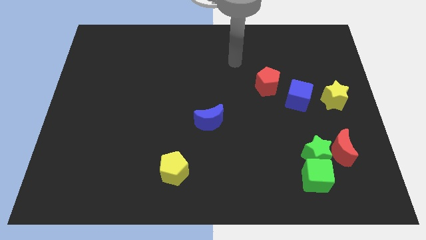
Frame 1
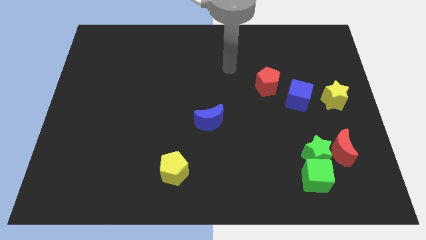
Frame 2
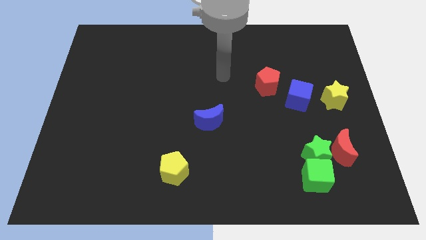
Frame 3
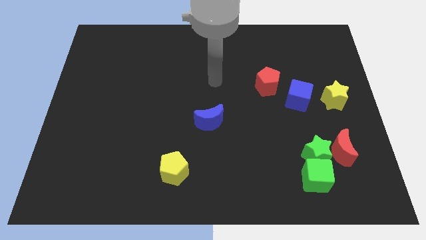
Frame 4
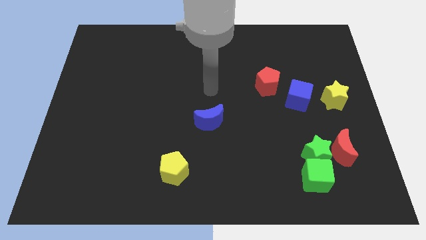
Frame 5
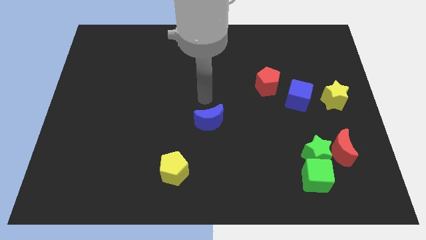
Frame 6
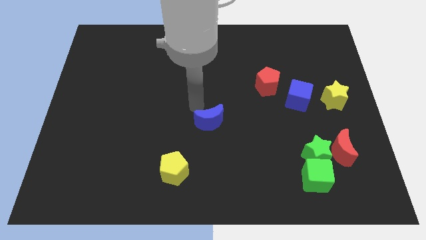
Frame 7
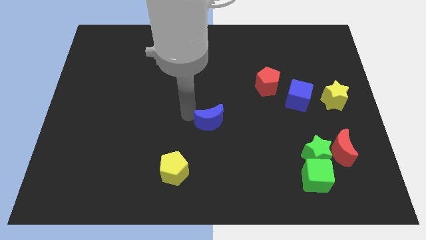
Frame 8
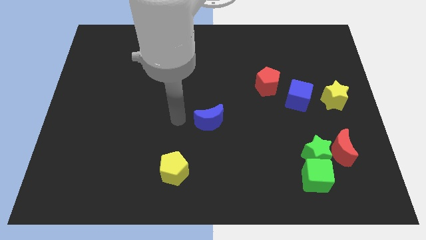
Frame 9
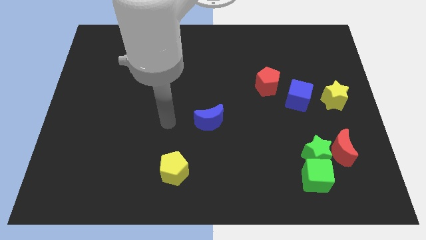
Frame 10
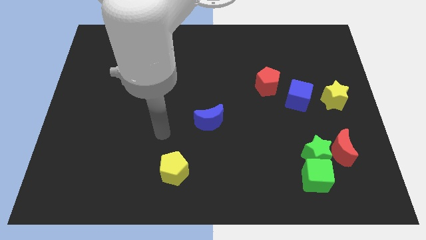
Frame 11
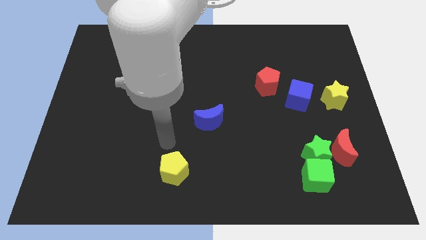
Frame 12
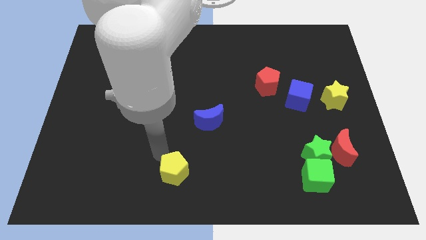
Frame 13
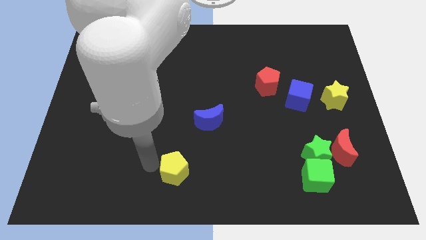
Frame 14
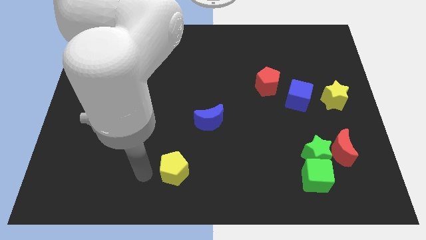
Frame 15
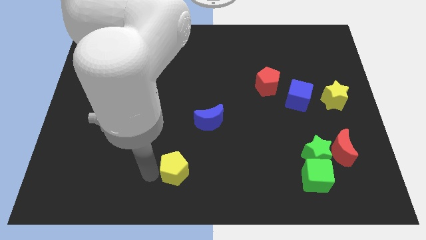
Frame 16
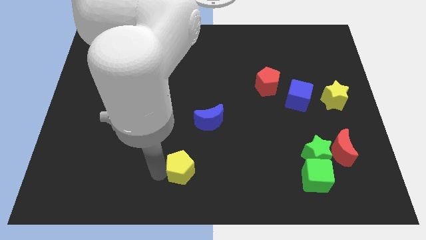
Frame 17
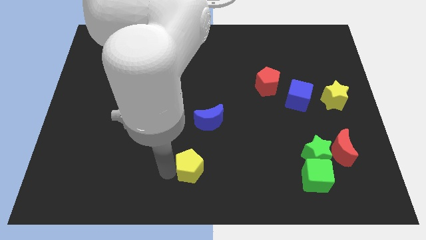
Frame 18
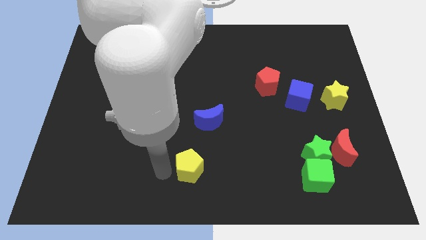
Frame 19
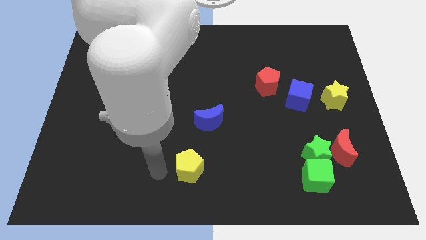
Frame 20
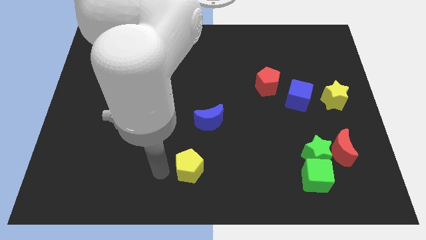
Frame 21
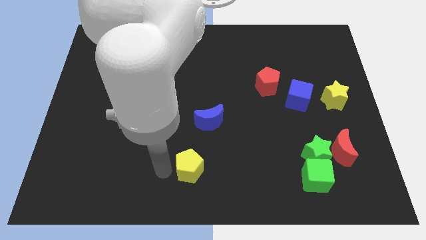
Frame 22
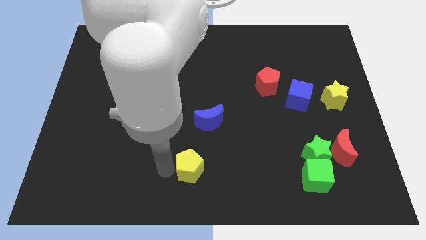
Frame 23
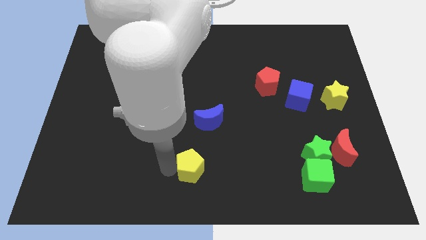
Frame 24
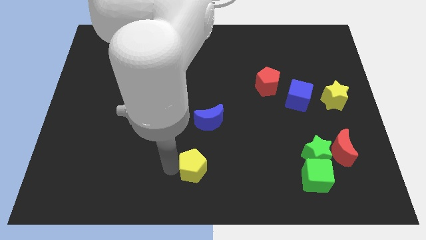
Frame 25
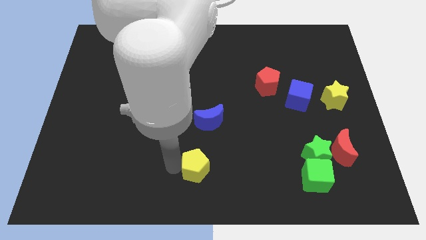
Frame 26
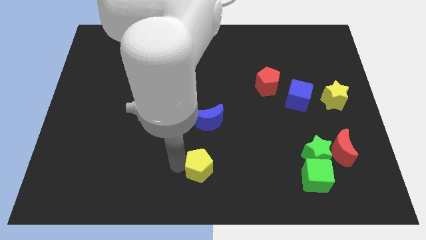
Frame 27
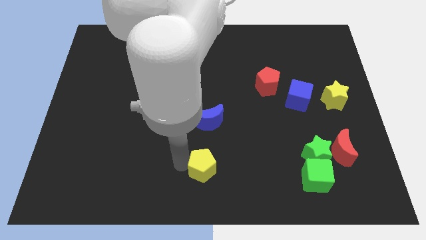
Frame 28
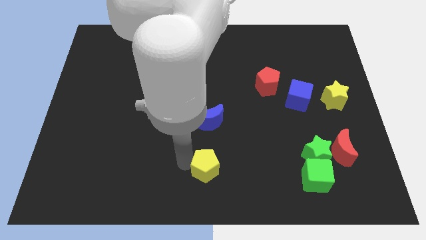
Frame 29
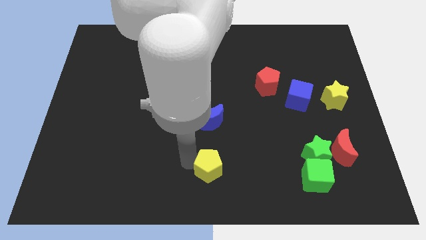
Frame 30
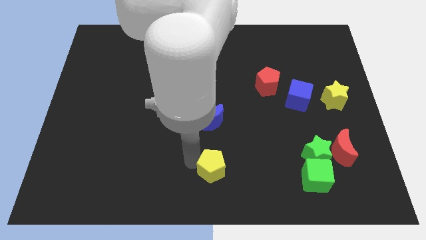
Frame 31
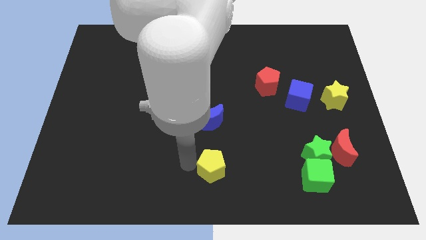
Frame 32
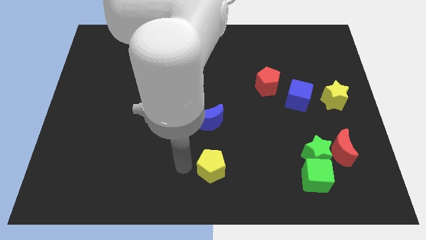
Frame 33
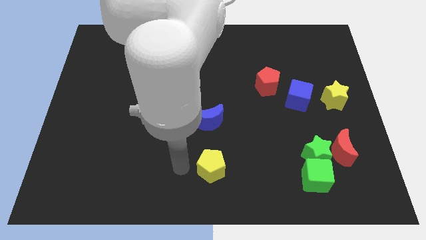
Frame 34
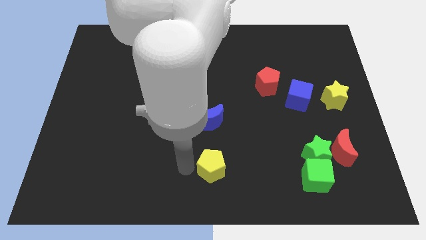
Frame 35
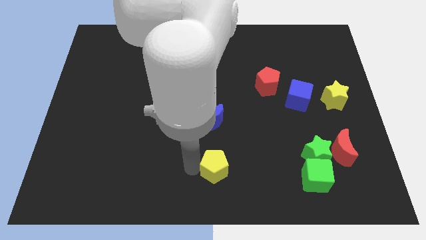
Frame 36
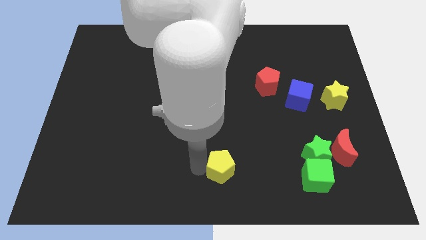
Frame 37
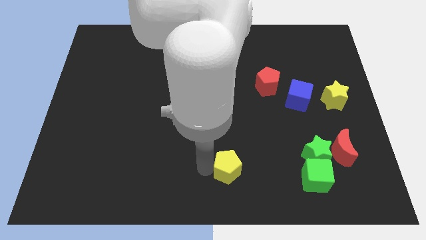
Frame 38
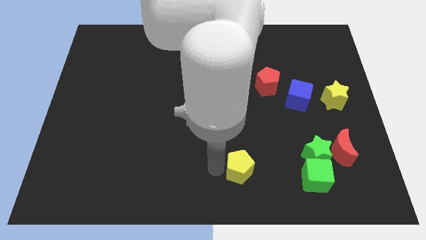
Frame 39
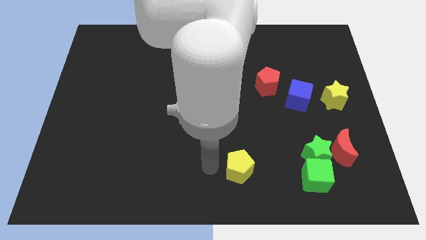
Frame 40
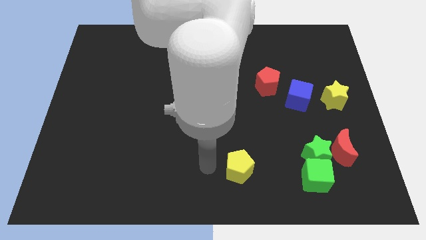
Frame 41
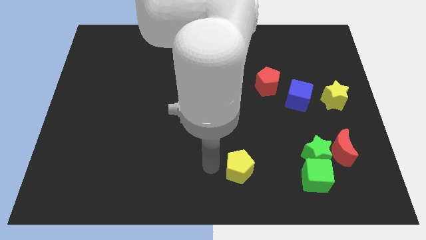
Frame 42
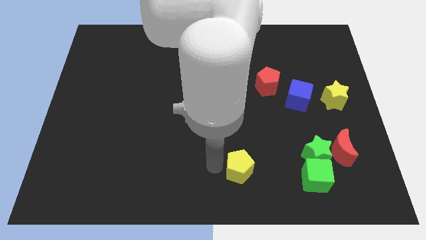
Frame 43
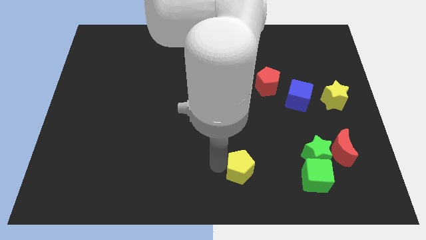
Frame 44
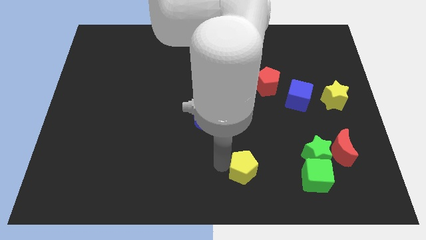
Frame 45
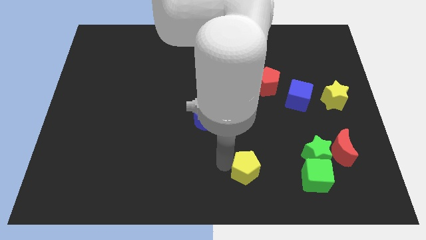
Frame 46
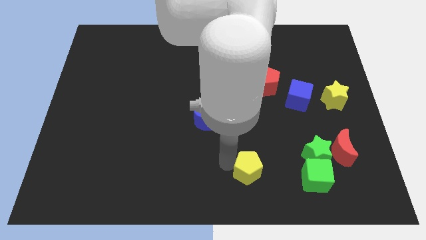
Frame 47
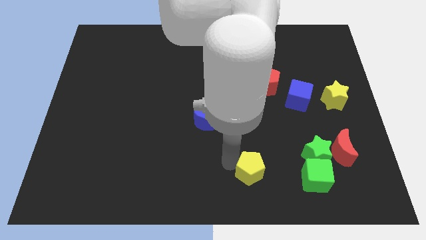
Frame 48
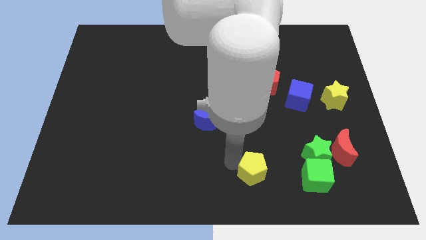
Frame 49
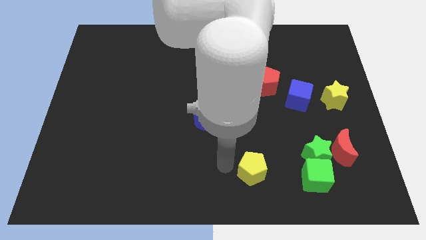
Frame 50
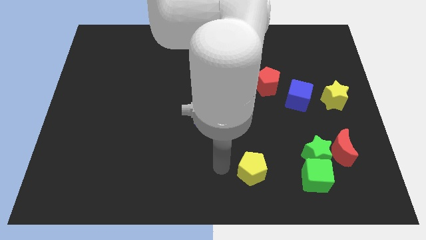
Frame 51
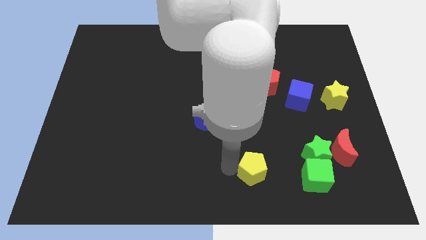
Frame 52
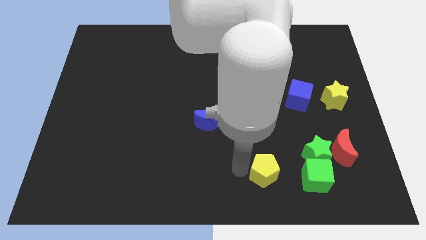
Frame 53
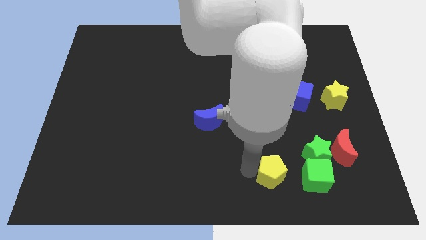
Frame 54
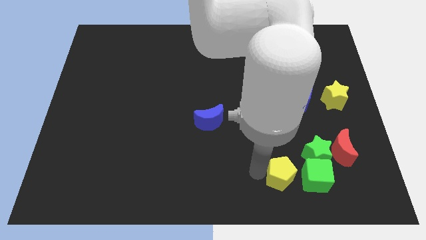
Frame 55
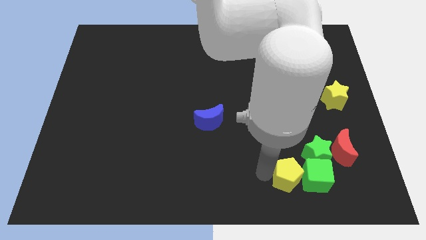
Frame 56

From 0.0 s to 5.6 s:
move the yellow pentagon towards the green cube

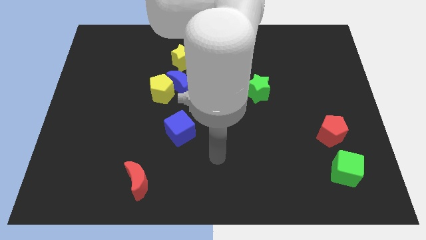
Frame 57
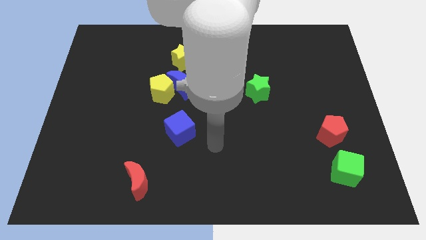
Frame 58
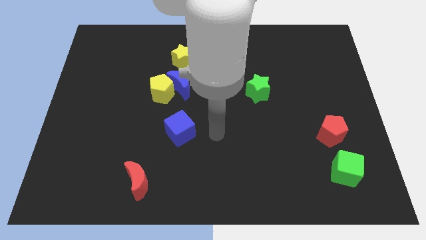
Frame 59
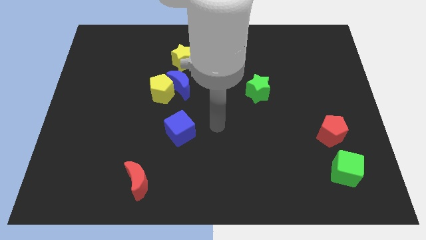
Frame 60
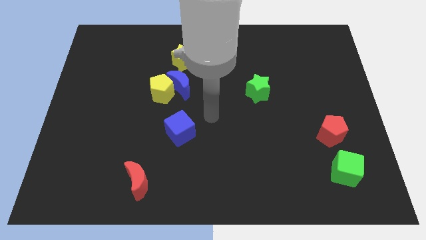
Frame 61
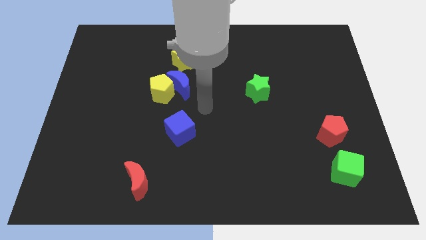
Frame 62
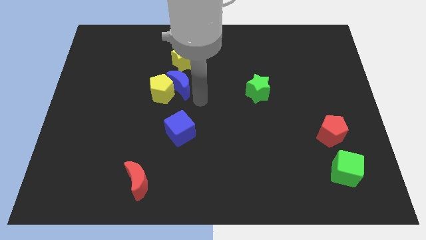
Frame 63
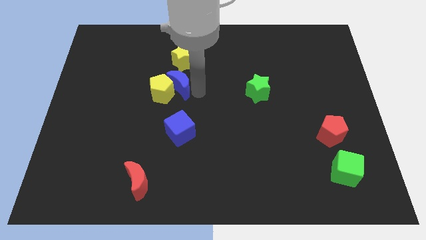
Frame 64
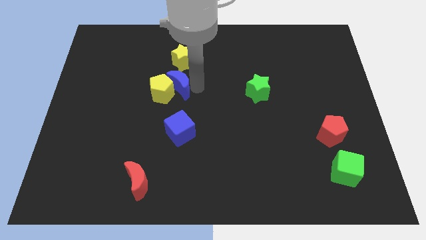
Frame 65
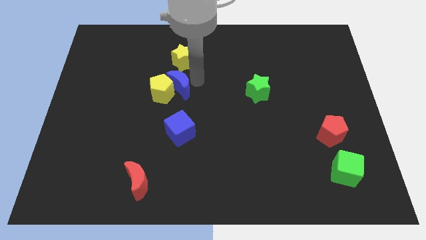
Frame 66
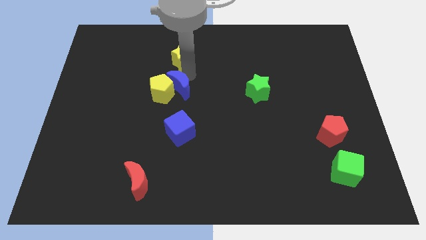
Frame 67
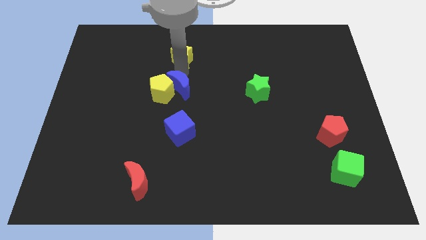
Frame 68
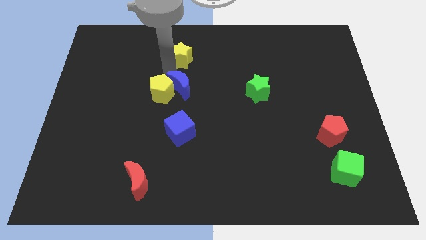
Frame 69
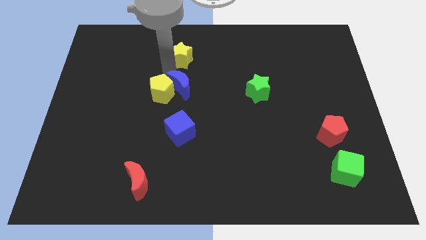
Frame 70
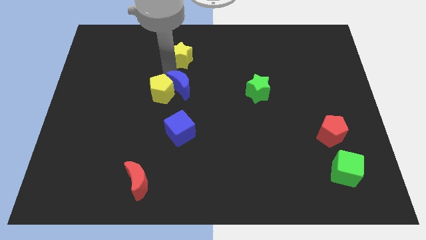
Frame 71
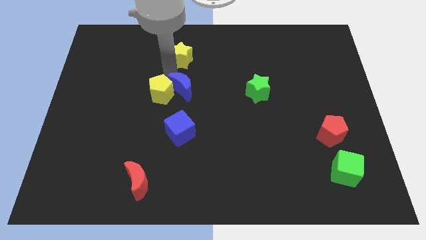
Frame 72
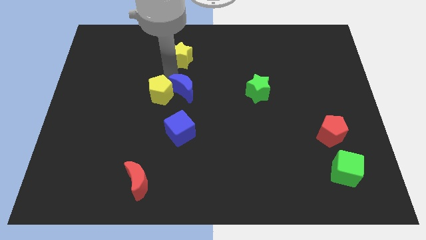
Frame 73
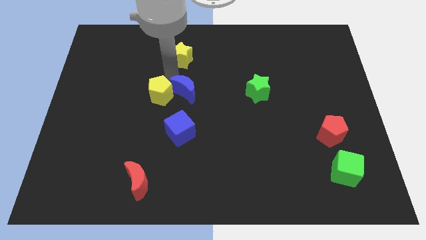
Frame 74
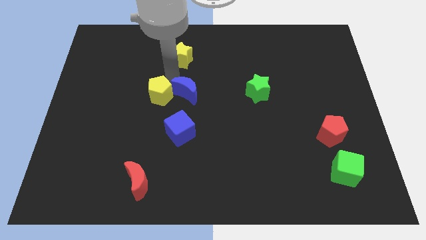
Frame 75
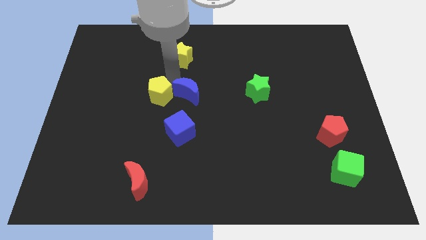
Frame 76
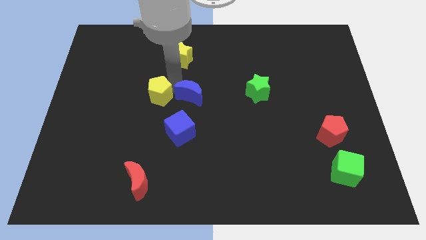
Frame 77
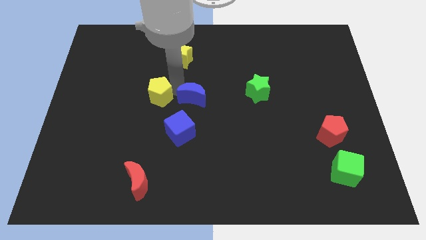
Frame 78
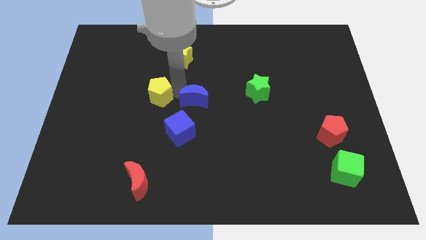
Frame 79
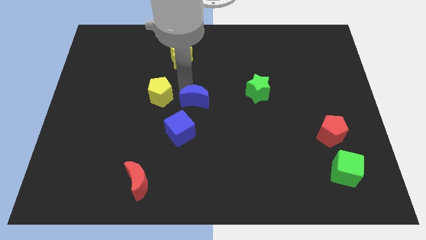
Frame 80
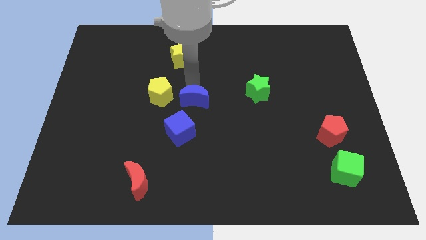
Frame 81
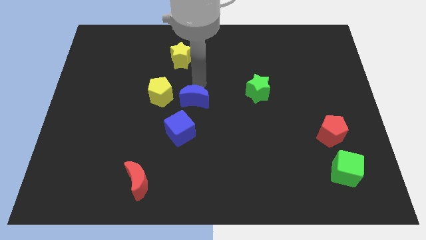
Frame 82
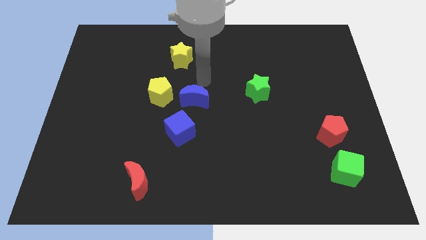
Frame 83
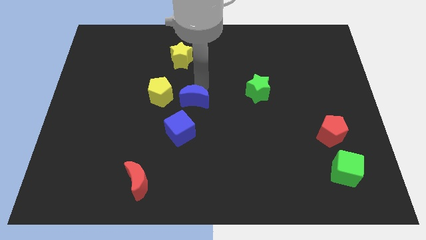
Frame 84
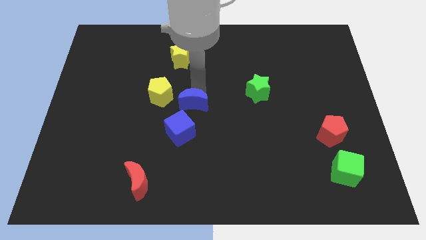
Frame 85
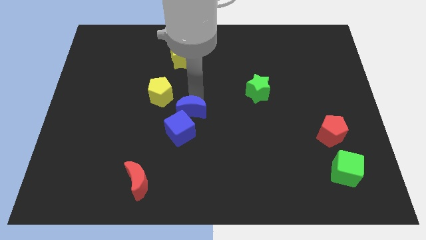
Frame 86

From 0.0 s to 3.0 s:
slide the blue moon towards the blue cube
